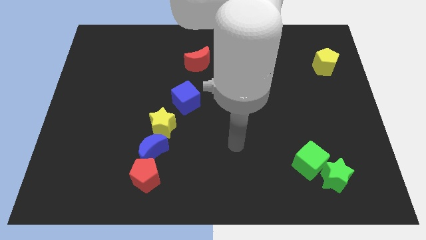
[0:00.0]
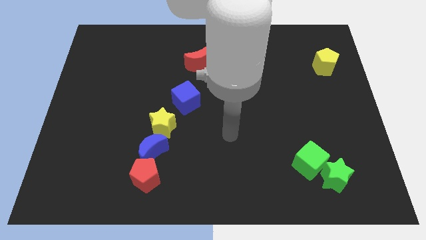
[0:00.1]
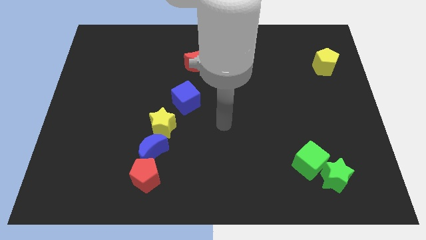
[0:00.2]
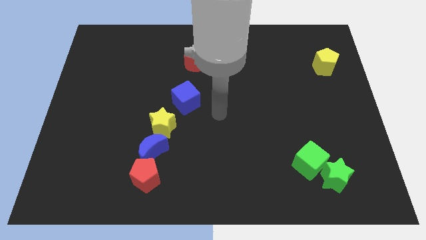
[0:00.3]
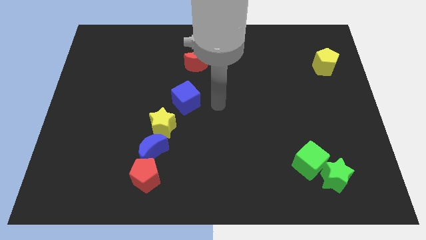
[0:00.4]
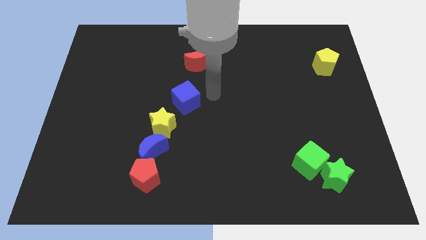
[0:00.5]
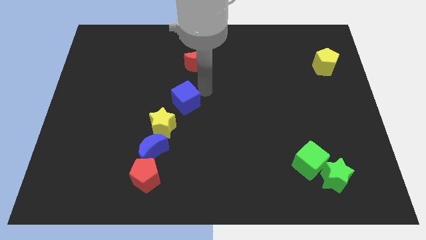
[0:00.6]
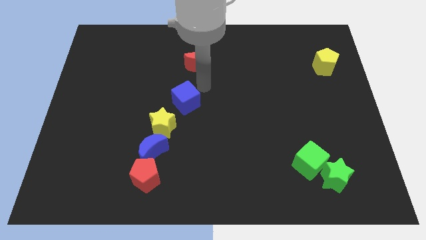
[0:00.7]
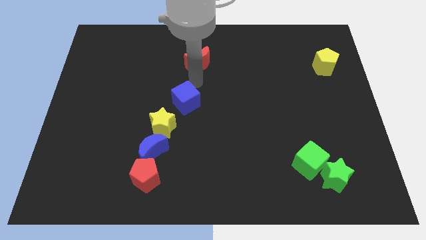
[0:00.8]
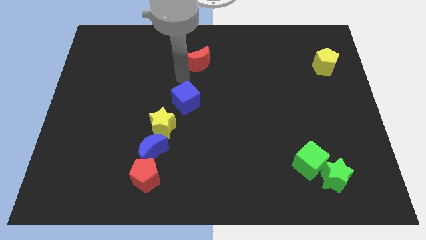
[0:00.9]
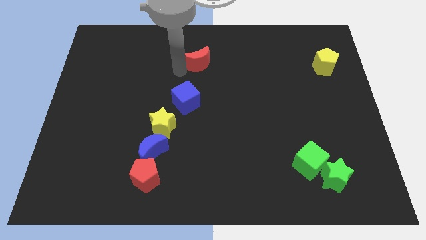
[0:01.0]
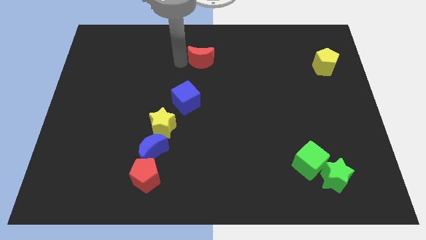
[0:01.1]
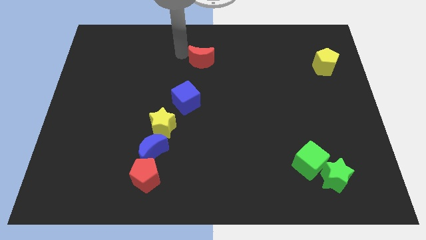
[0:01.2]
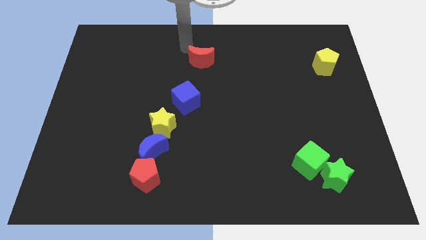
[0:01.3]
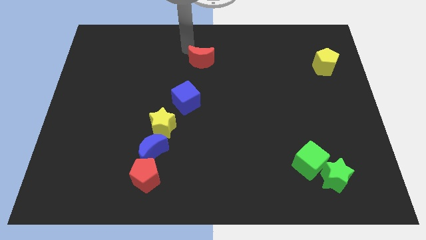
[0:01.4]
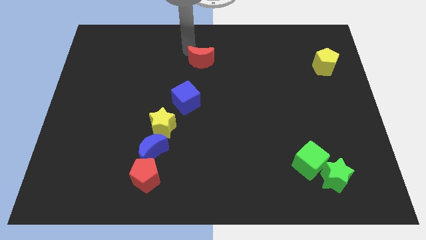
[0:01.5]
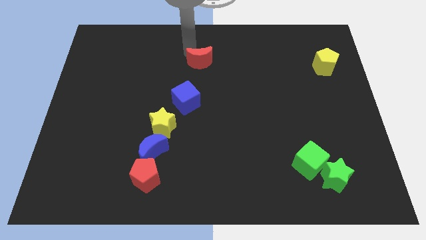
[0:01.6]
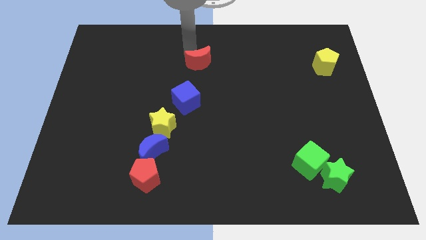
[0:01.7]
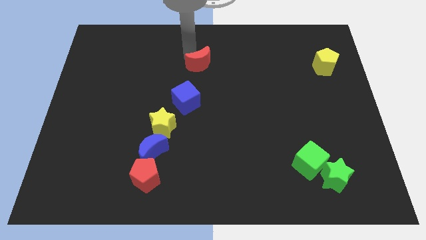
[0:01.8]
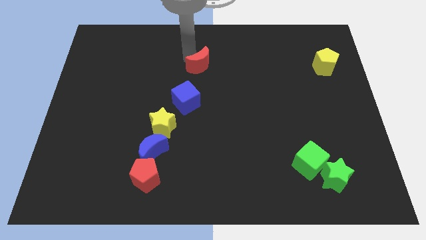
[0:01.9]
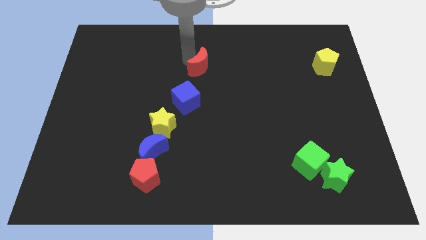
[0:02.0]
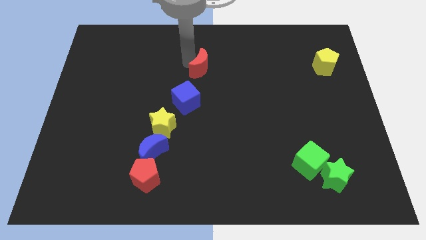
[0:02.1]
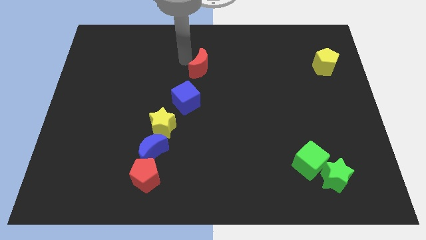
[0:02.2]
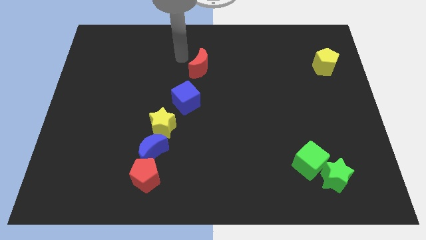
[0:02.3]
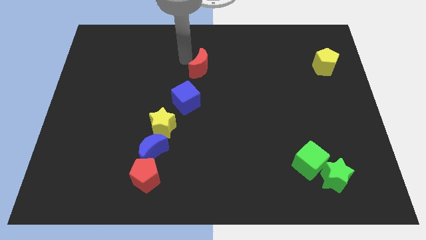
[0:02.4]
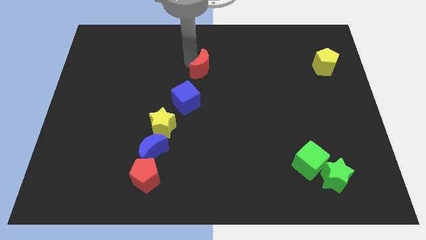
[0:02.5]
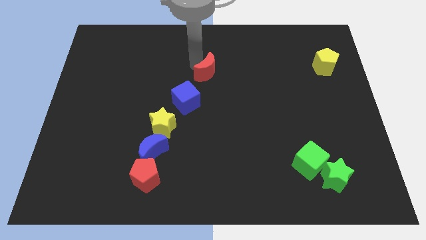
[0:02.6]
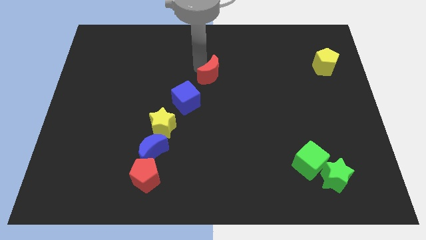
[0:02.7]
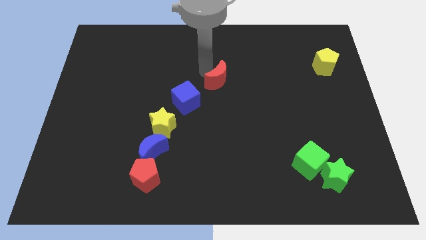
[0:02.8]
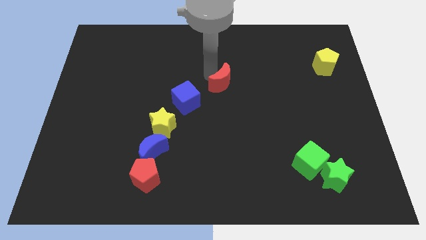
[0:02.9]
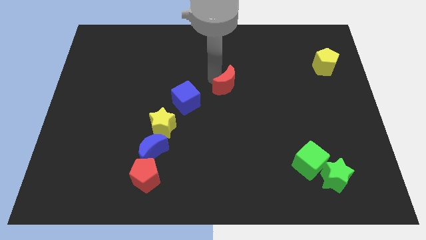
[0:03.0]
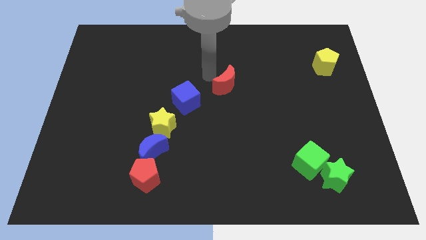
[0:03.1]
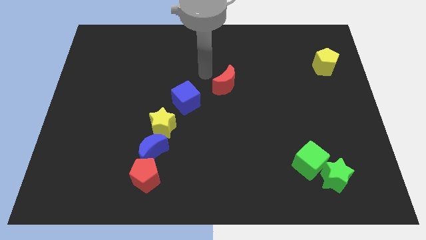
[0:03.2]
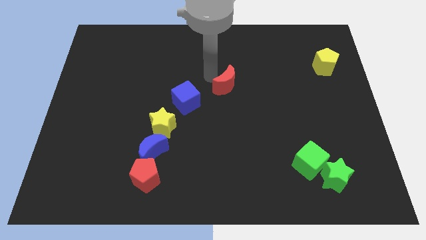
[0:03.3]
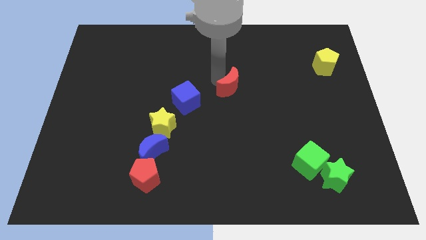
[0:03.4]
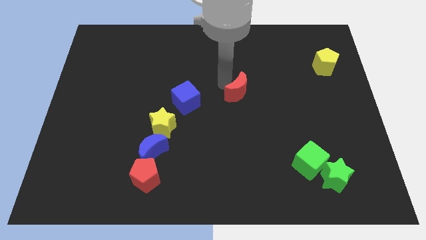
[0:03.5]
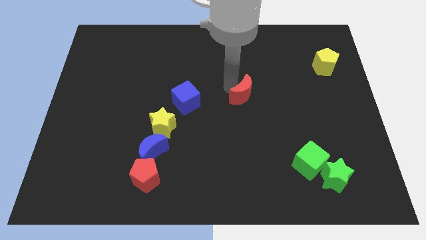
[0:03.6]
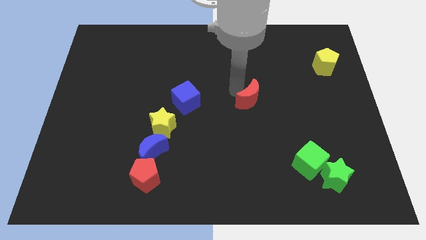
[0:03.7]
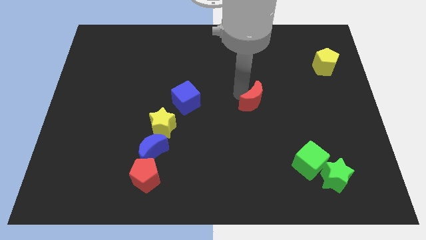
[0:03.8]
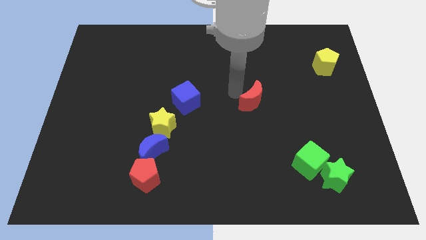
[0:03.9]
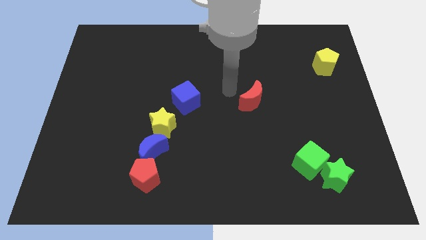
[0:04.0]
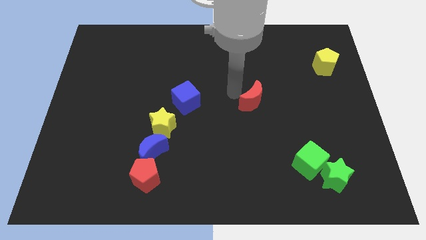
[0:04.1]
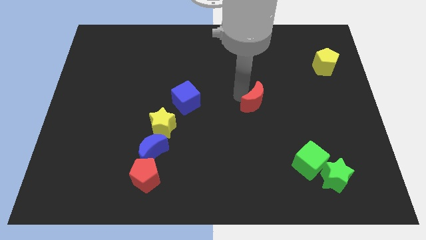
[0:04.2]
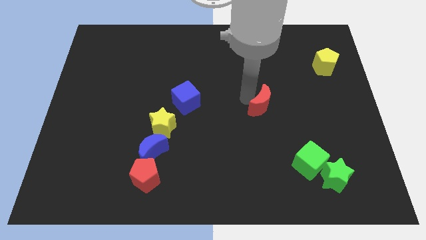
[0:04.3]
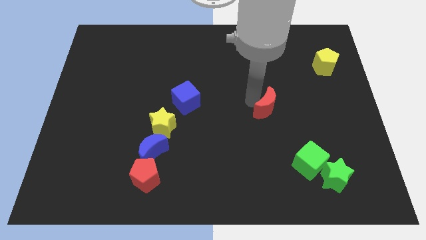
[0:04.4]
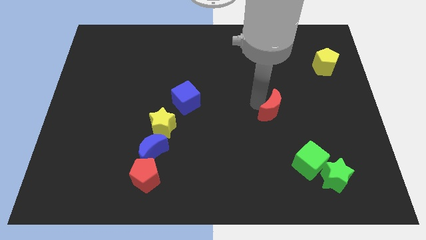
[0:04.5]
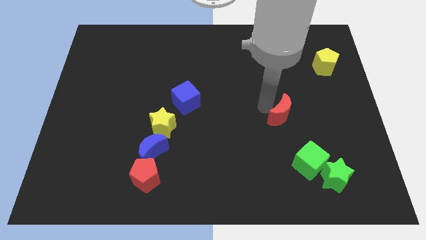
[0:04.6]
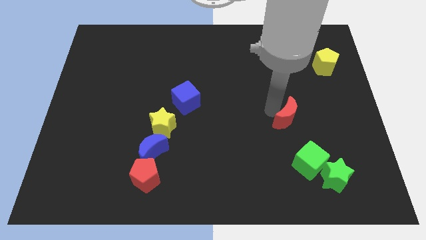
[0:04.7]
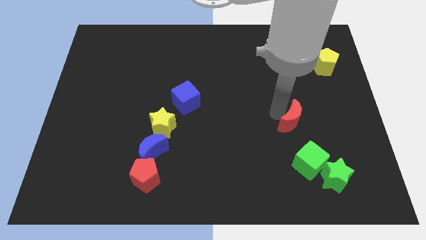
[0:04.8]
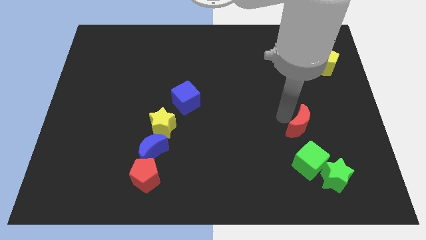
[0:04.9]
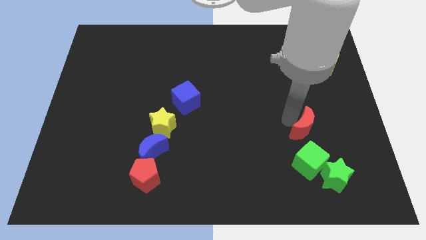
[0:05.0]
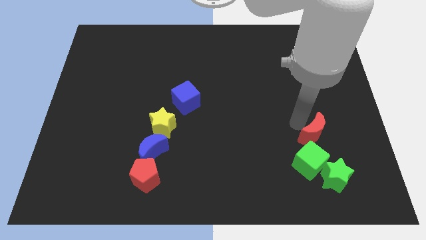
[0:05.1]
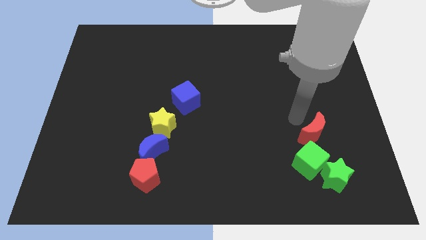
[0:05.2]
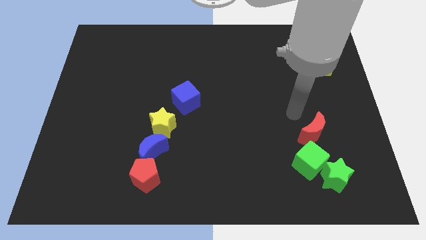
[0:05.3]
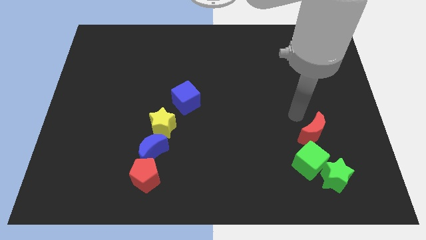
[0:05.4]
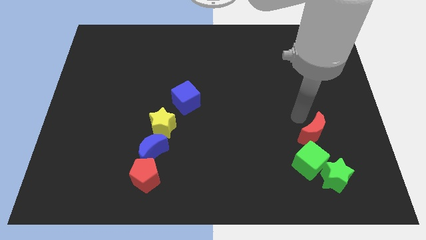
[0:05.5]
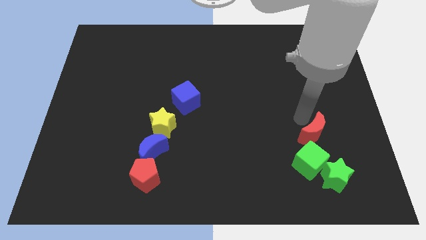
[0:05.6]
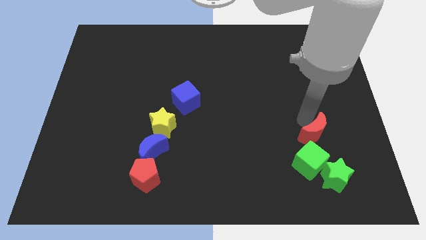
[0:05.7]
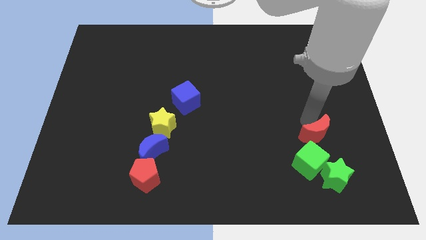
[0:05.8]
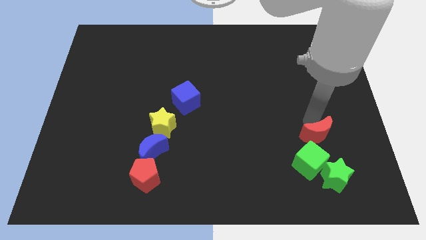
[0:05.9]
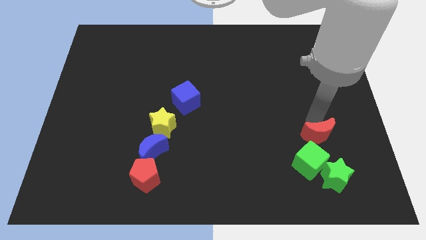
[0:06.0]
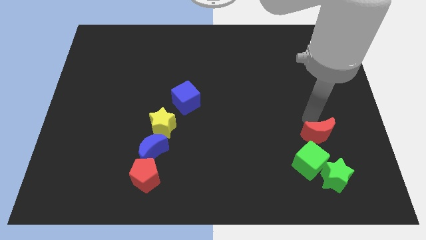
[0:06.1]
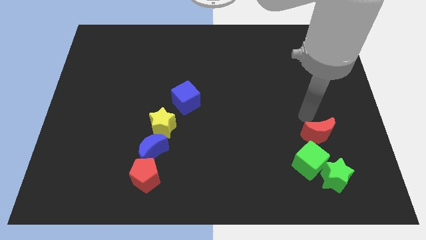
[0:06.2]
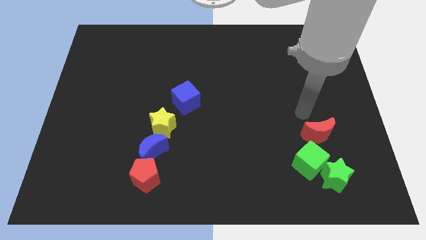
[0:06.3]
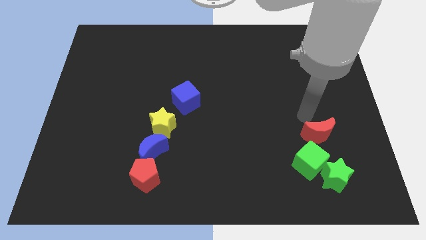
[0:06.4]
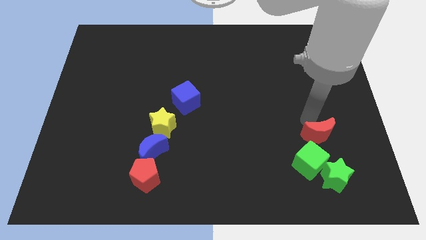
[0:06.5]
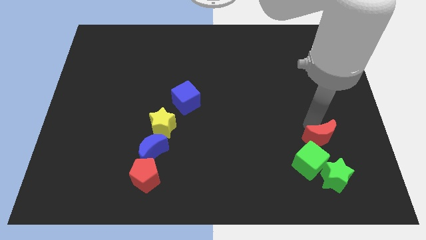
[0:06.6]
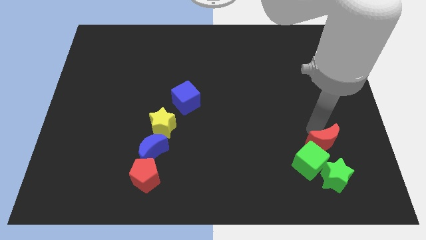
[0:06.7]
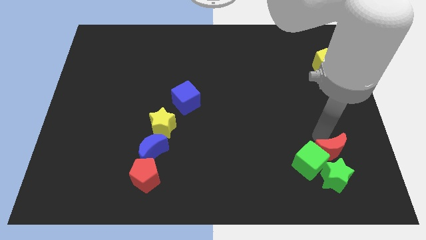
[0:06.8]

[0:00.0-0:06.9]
put the red moon to the green star

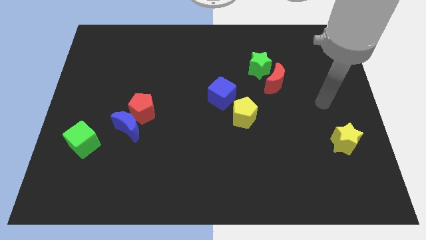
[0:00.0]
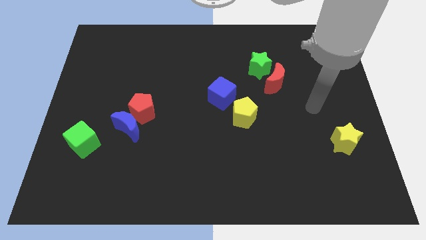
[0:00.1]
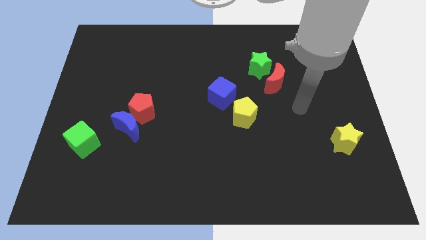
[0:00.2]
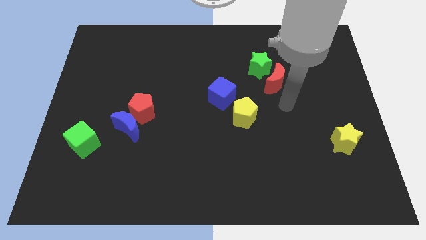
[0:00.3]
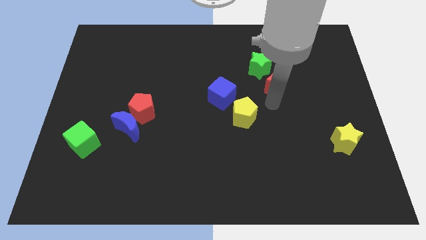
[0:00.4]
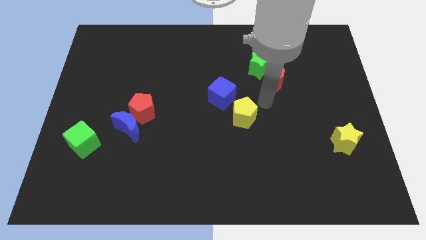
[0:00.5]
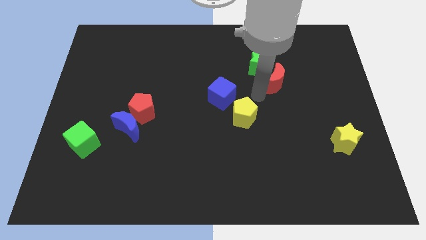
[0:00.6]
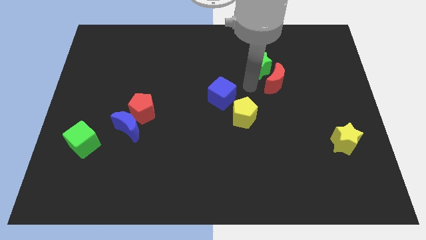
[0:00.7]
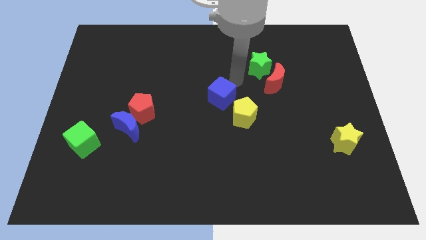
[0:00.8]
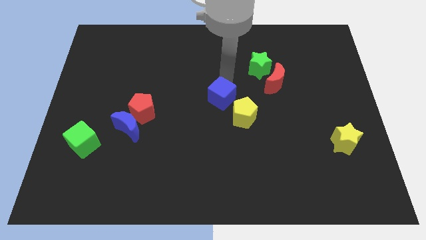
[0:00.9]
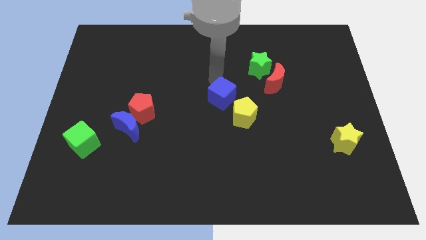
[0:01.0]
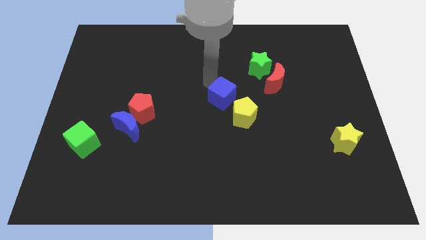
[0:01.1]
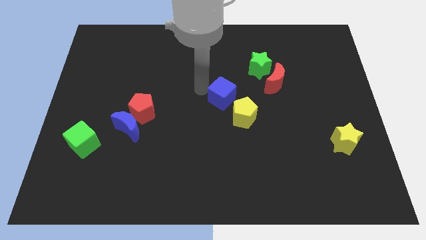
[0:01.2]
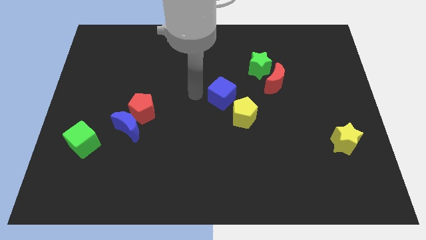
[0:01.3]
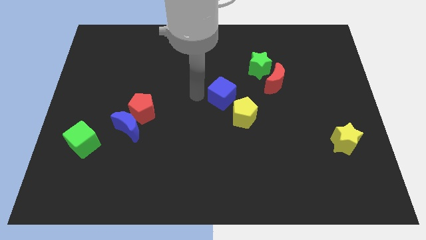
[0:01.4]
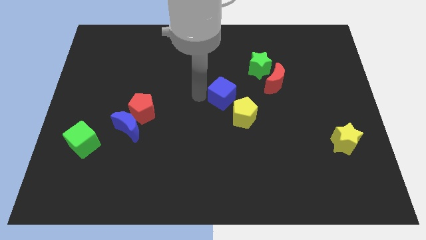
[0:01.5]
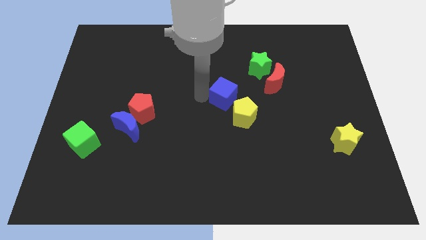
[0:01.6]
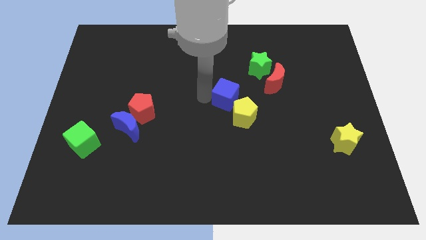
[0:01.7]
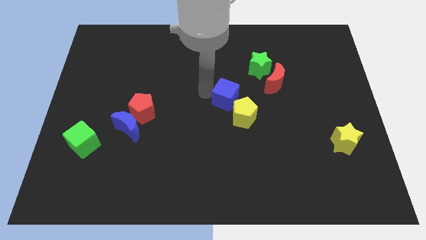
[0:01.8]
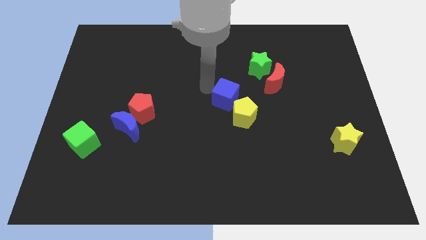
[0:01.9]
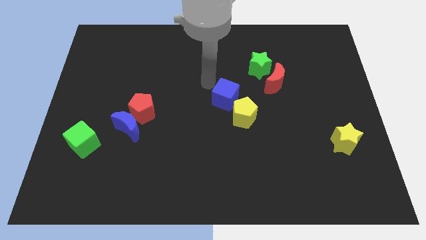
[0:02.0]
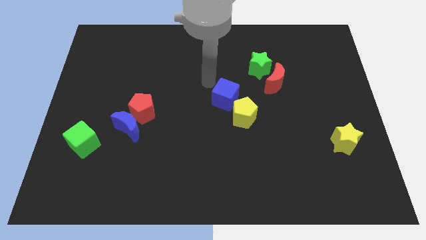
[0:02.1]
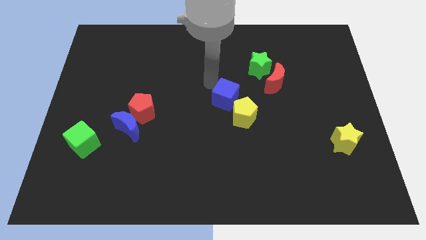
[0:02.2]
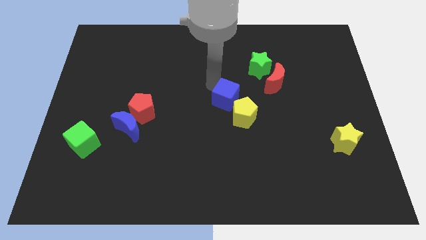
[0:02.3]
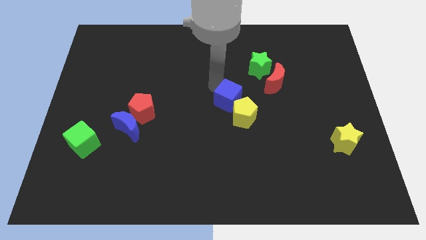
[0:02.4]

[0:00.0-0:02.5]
put the blue cube close to the yellow pentagon
